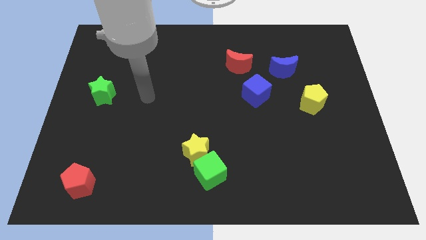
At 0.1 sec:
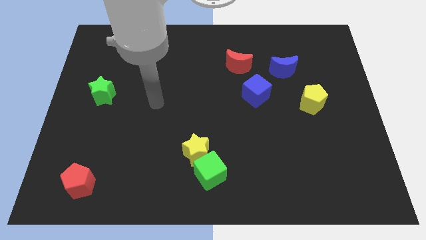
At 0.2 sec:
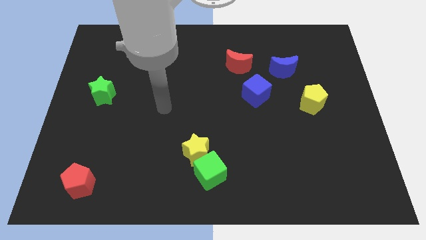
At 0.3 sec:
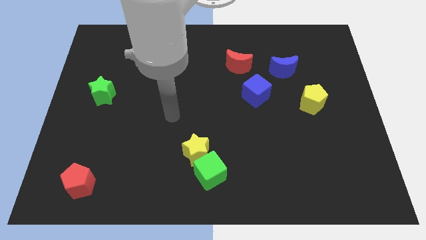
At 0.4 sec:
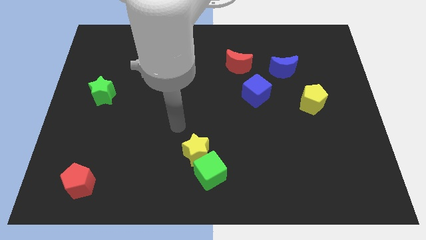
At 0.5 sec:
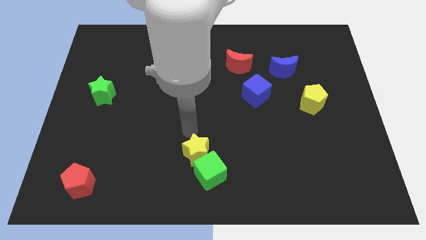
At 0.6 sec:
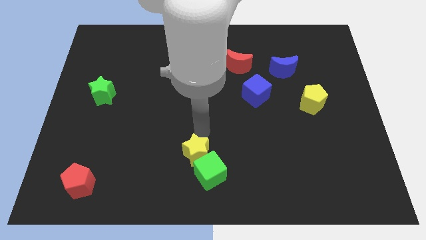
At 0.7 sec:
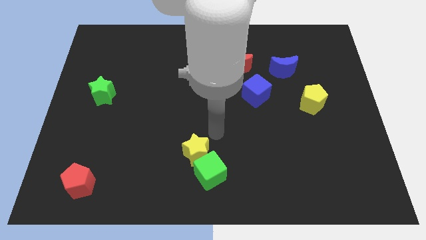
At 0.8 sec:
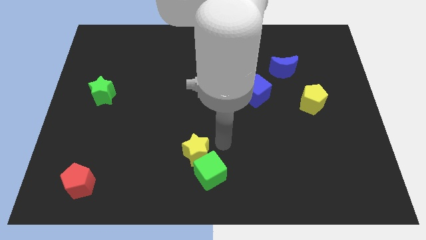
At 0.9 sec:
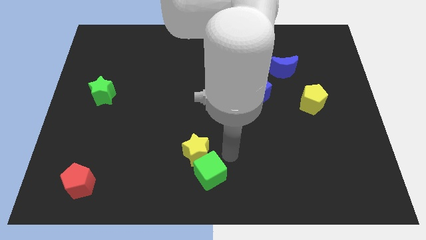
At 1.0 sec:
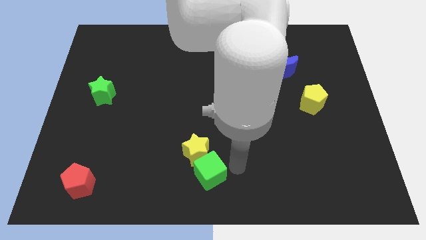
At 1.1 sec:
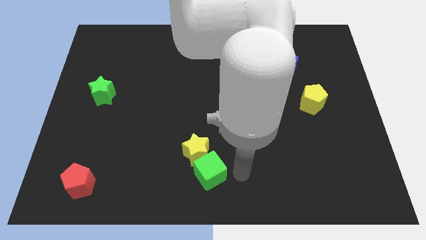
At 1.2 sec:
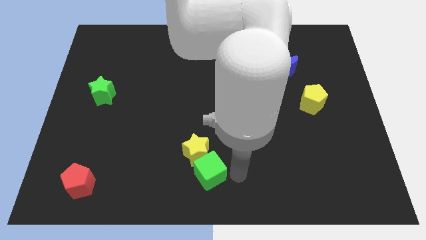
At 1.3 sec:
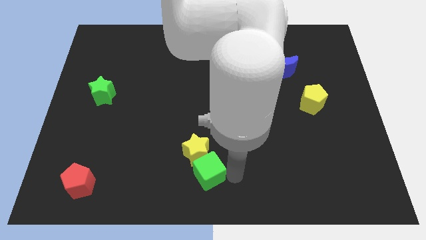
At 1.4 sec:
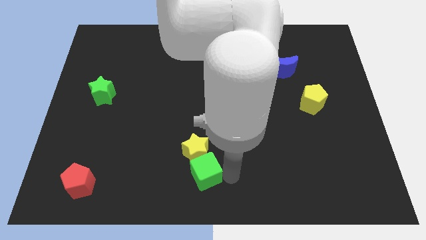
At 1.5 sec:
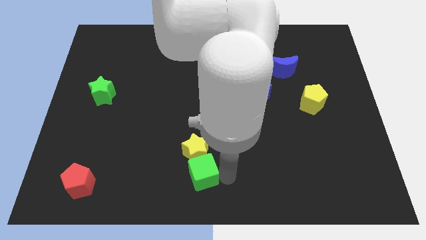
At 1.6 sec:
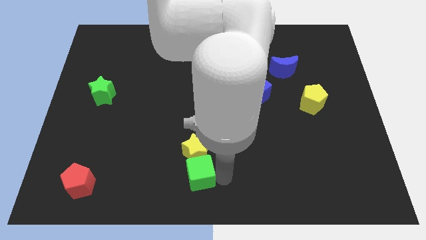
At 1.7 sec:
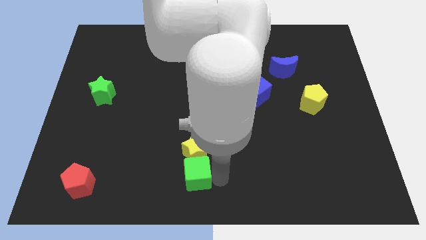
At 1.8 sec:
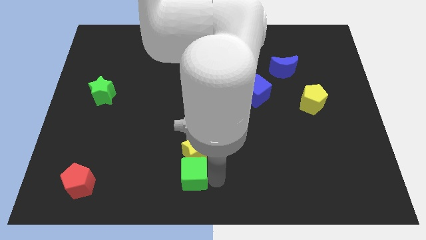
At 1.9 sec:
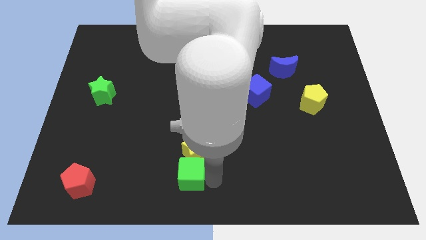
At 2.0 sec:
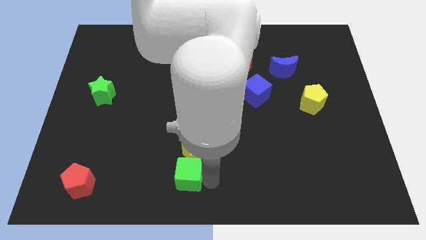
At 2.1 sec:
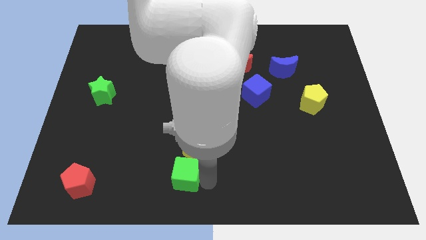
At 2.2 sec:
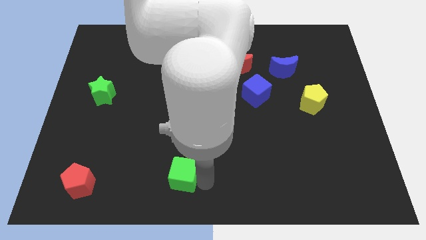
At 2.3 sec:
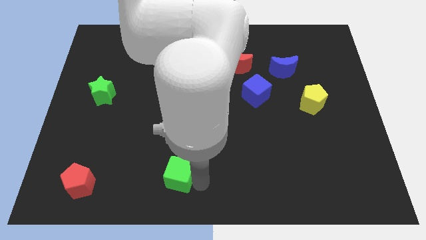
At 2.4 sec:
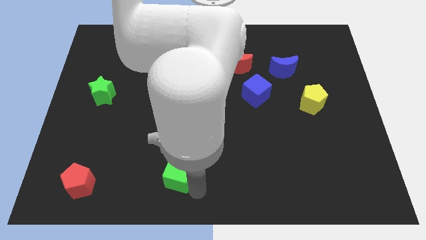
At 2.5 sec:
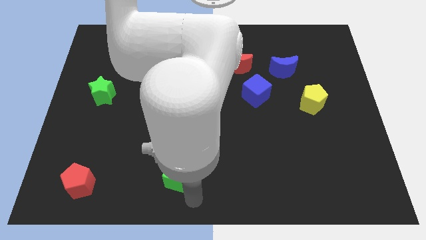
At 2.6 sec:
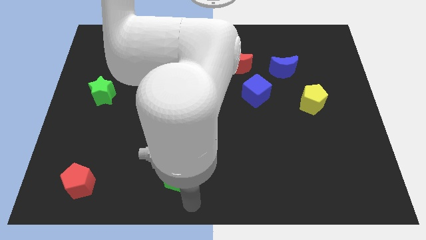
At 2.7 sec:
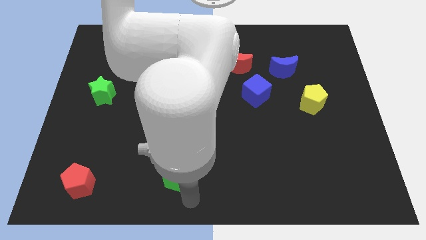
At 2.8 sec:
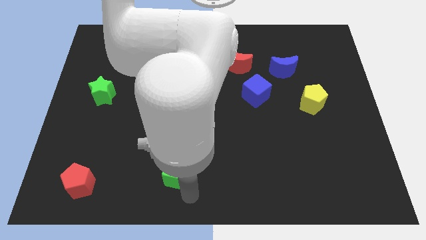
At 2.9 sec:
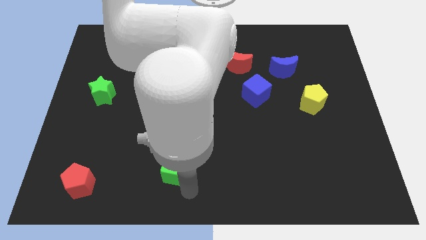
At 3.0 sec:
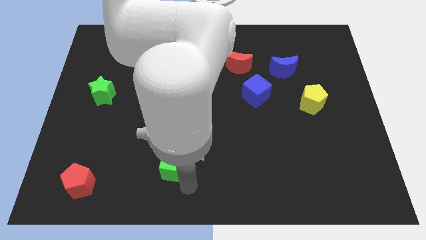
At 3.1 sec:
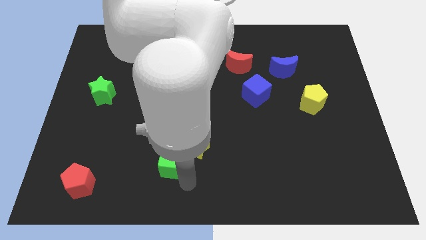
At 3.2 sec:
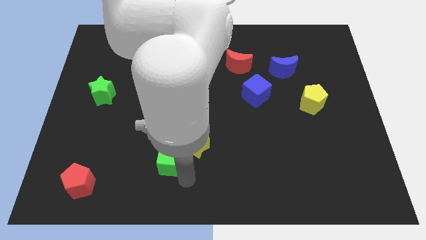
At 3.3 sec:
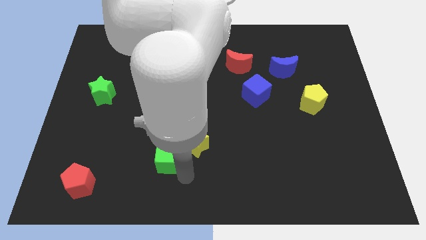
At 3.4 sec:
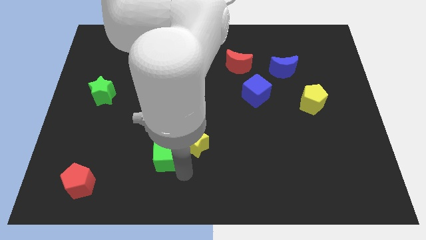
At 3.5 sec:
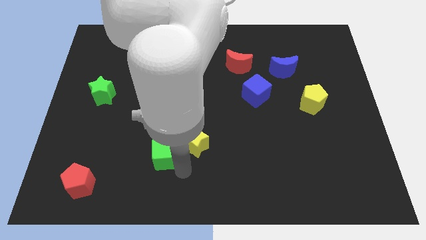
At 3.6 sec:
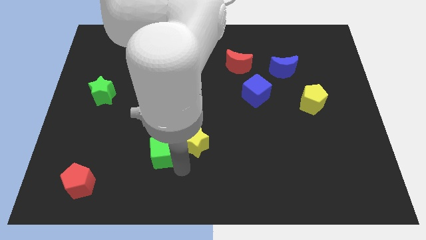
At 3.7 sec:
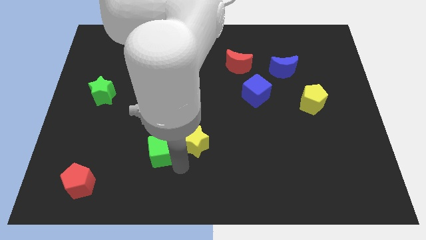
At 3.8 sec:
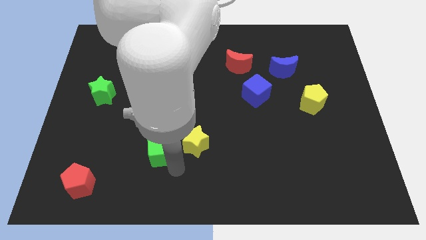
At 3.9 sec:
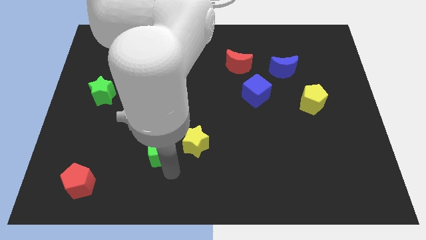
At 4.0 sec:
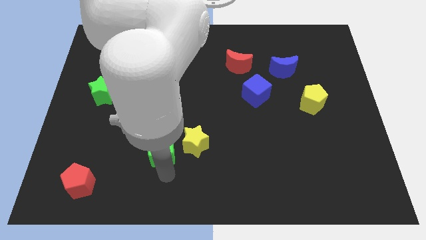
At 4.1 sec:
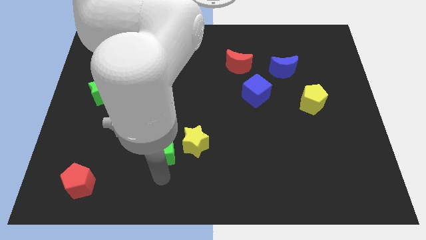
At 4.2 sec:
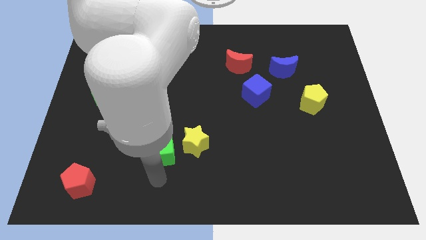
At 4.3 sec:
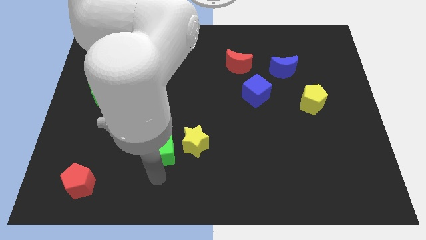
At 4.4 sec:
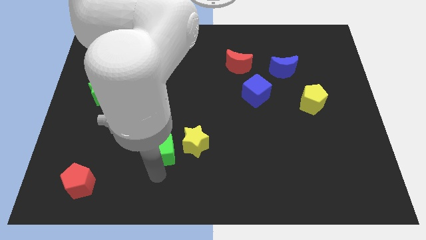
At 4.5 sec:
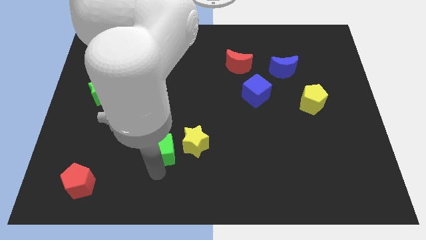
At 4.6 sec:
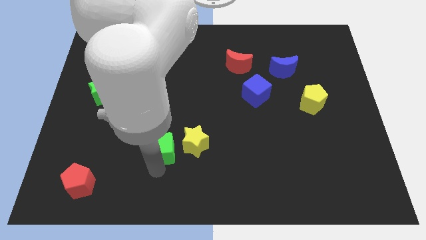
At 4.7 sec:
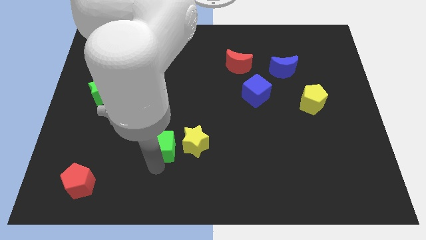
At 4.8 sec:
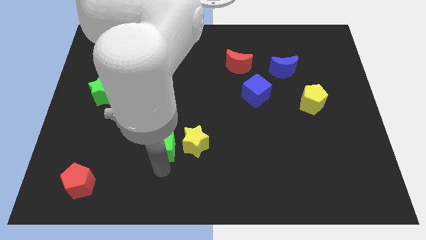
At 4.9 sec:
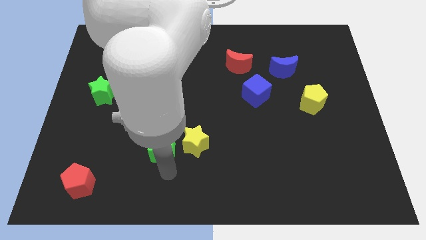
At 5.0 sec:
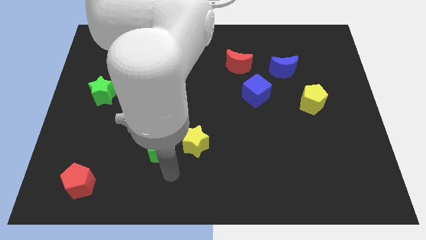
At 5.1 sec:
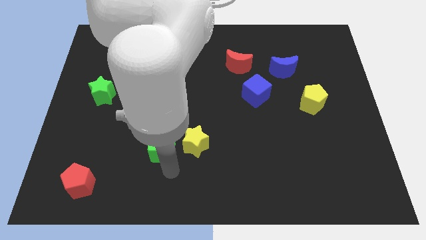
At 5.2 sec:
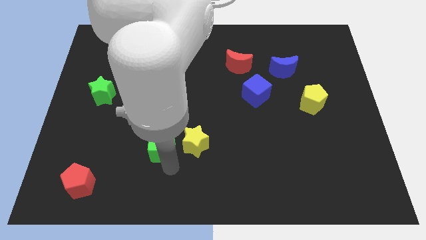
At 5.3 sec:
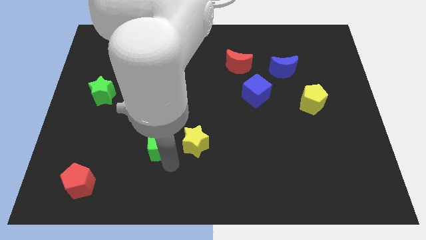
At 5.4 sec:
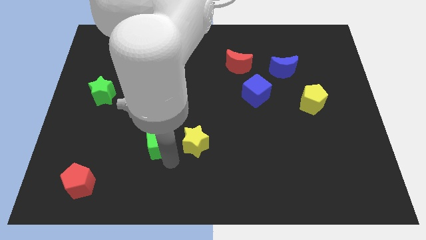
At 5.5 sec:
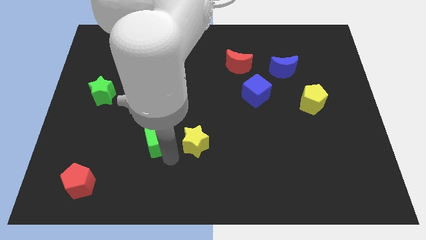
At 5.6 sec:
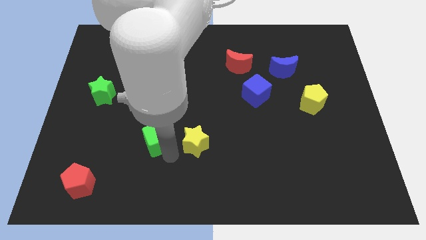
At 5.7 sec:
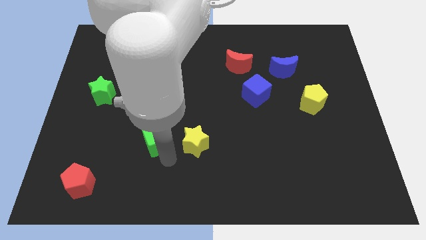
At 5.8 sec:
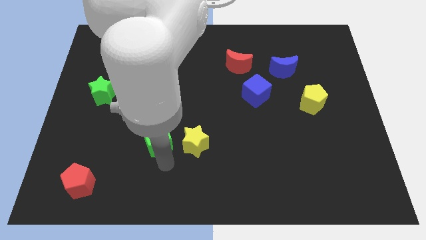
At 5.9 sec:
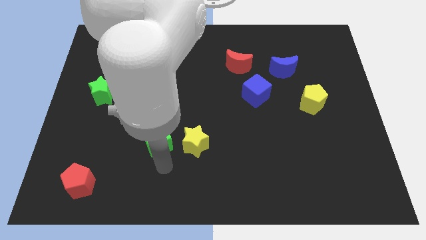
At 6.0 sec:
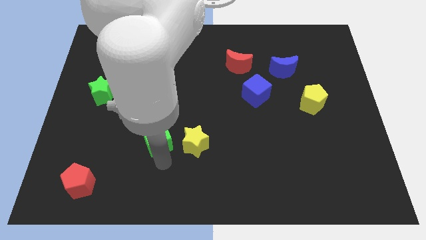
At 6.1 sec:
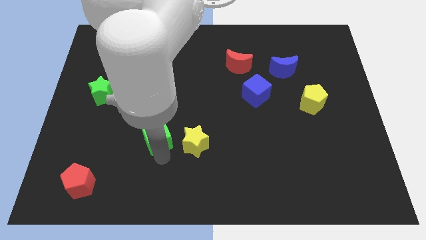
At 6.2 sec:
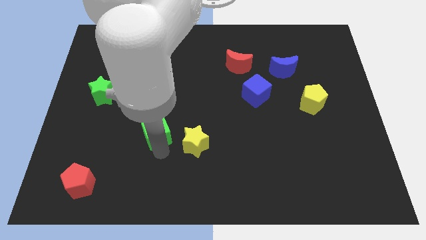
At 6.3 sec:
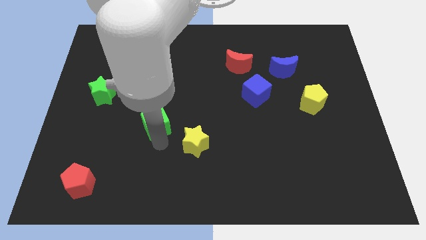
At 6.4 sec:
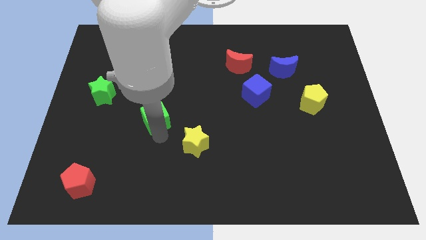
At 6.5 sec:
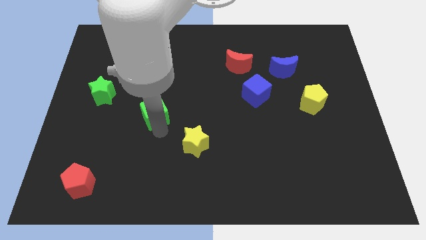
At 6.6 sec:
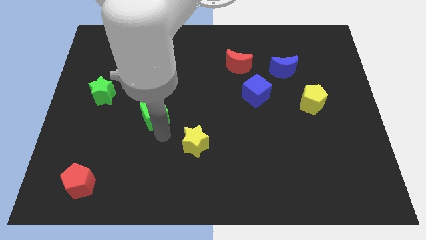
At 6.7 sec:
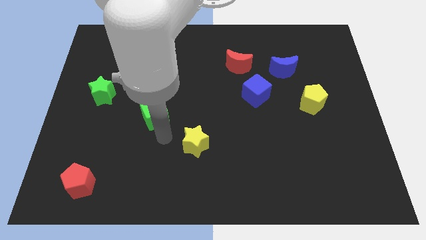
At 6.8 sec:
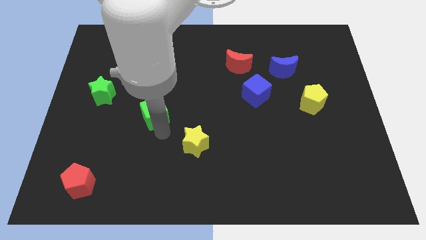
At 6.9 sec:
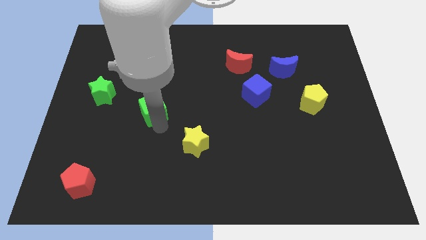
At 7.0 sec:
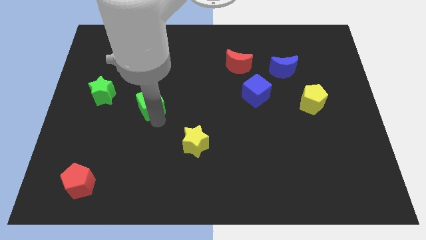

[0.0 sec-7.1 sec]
push the green cube right of the green star

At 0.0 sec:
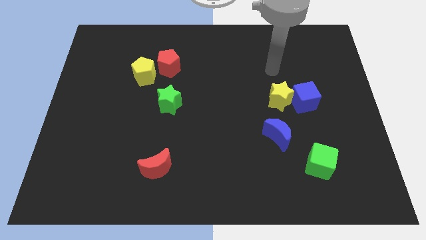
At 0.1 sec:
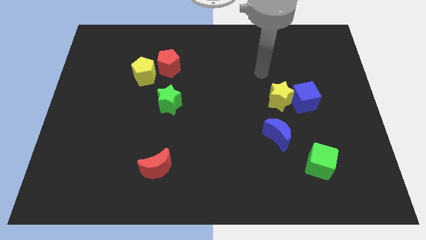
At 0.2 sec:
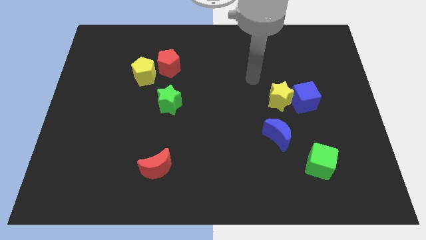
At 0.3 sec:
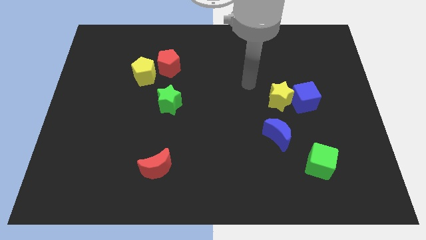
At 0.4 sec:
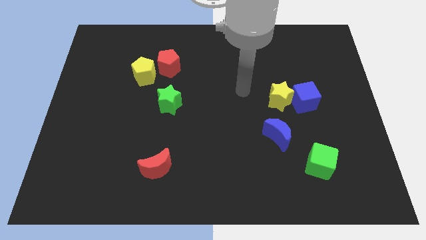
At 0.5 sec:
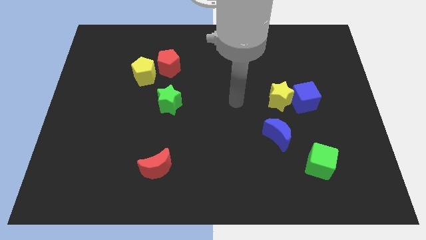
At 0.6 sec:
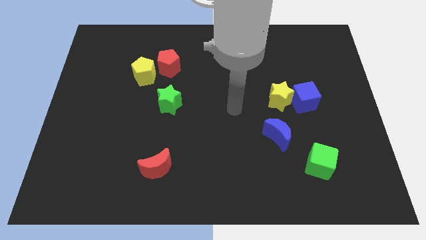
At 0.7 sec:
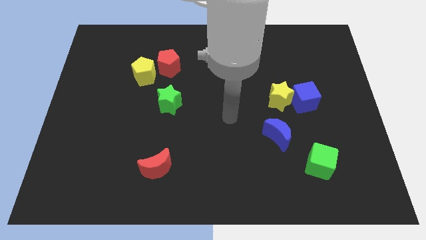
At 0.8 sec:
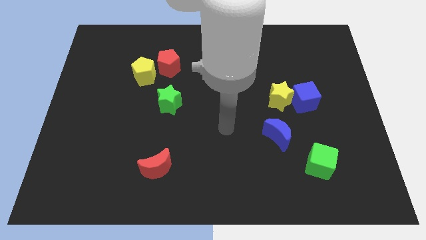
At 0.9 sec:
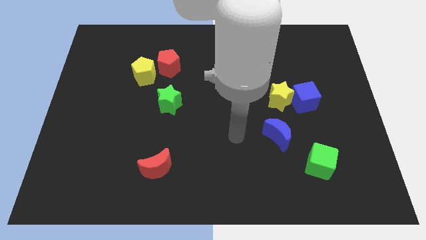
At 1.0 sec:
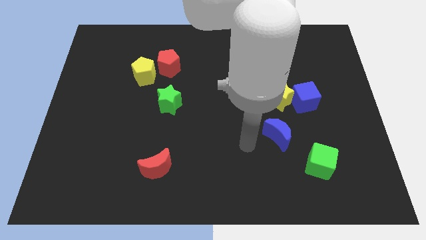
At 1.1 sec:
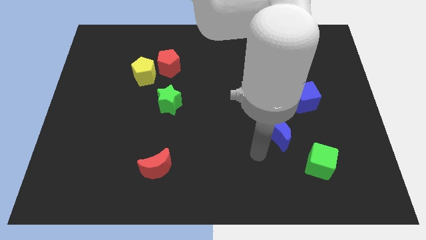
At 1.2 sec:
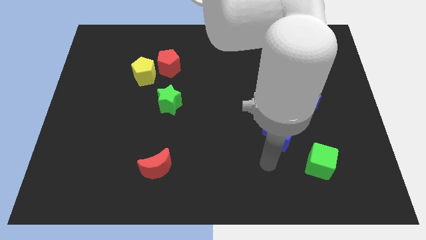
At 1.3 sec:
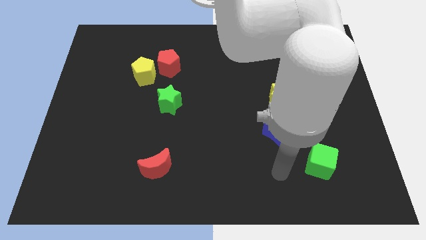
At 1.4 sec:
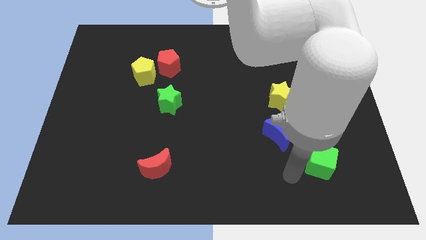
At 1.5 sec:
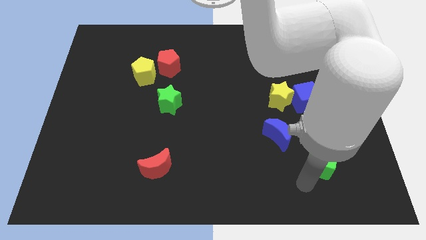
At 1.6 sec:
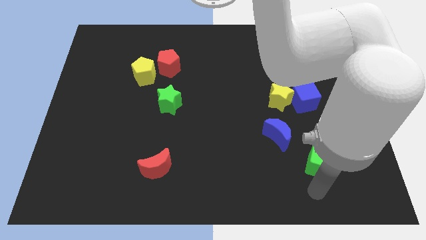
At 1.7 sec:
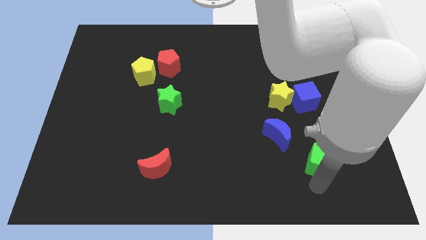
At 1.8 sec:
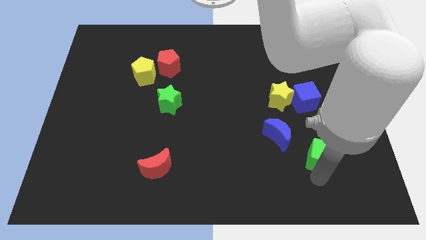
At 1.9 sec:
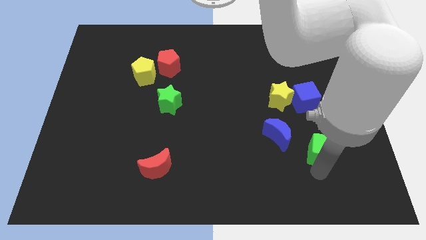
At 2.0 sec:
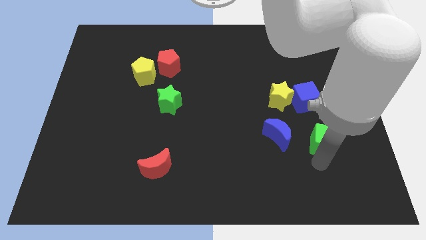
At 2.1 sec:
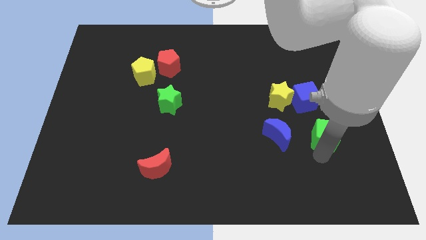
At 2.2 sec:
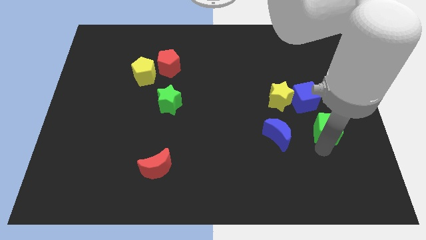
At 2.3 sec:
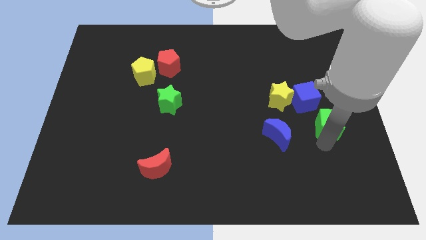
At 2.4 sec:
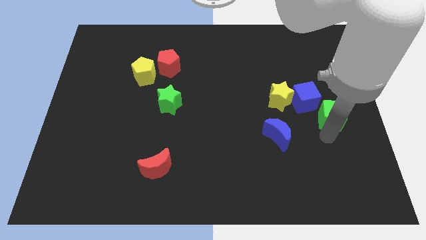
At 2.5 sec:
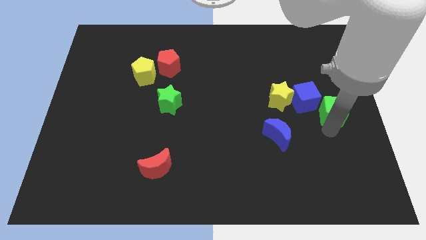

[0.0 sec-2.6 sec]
push the green cube right of the yellow star
